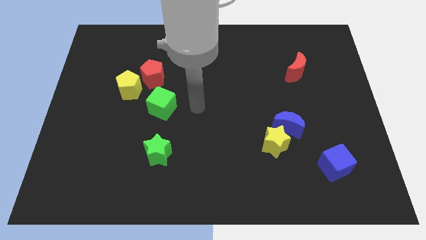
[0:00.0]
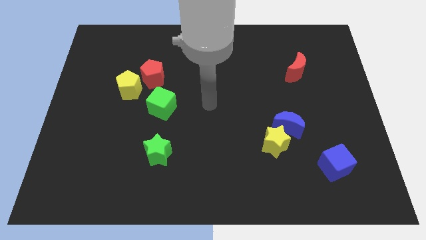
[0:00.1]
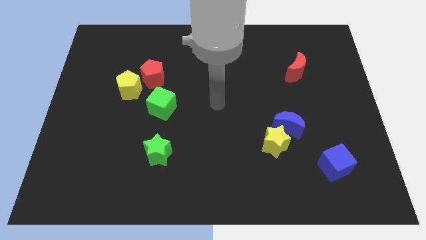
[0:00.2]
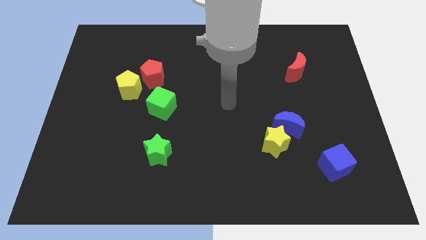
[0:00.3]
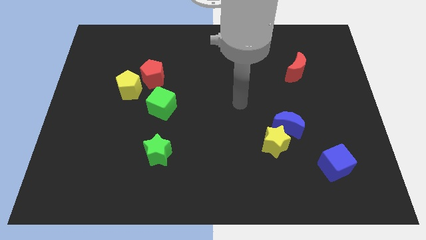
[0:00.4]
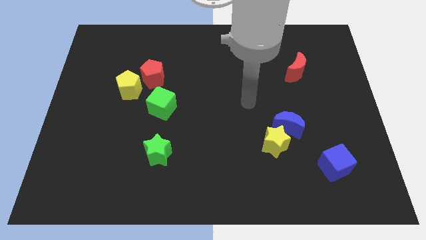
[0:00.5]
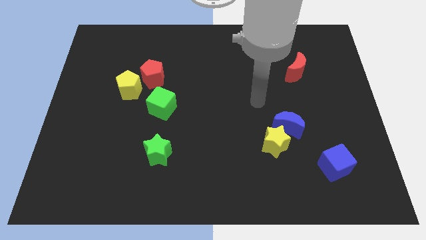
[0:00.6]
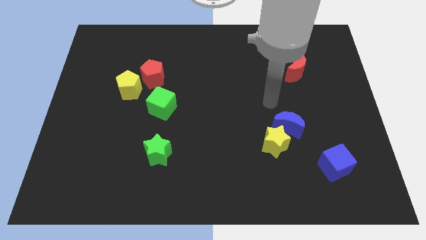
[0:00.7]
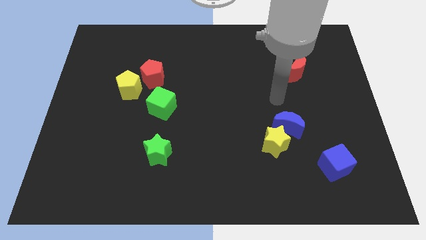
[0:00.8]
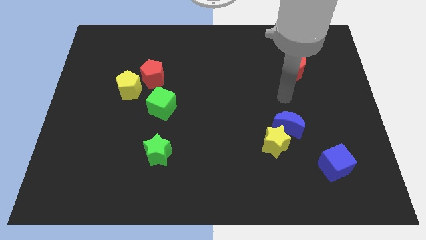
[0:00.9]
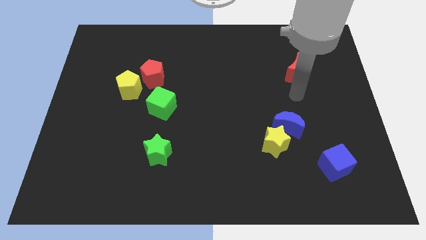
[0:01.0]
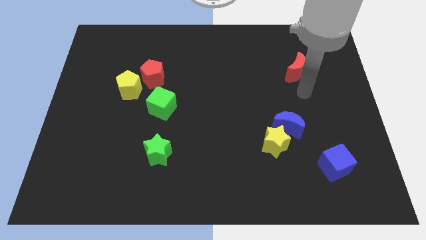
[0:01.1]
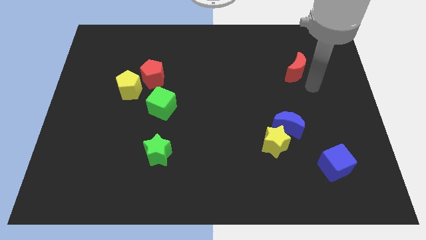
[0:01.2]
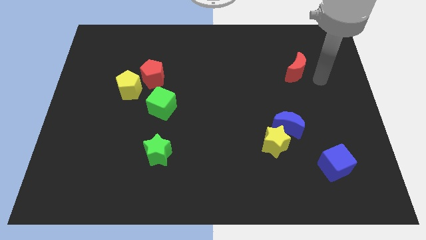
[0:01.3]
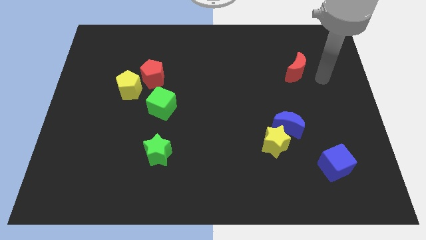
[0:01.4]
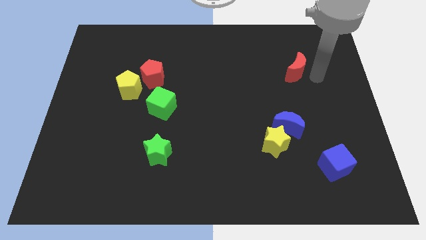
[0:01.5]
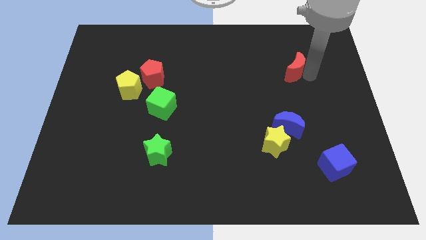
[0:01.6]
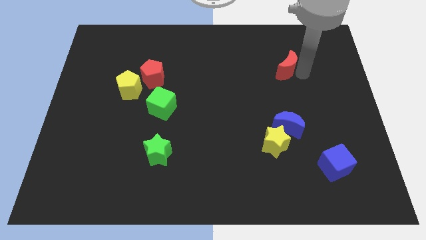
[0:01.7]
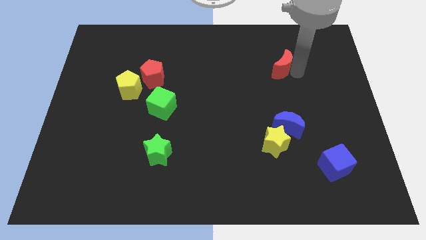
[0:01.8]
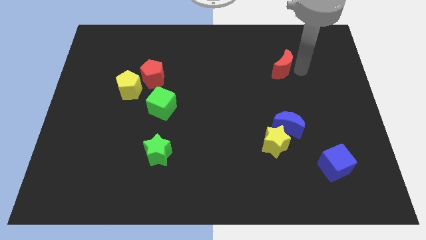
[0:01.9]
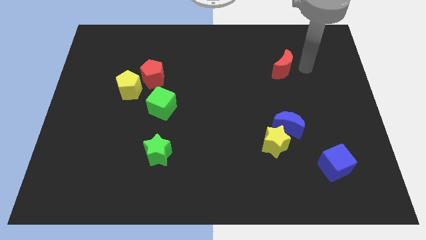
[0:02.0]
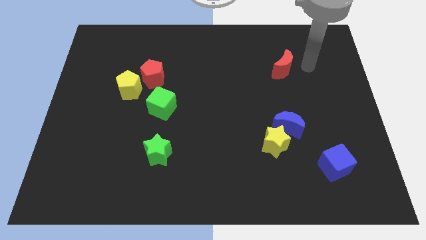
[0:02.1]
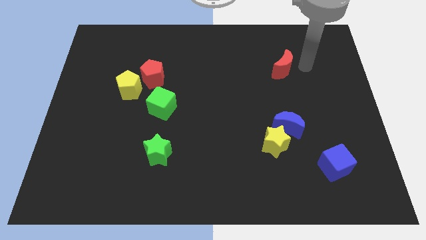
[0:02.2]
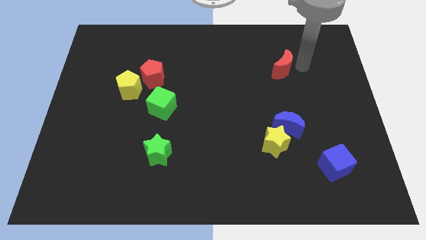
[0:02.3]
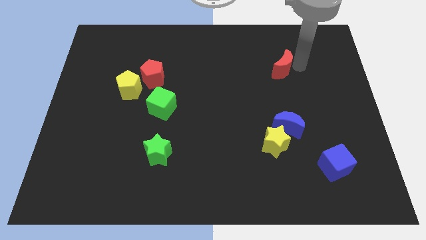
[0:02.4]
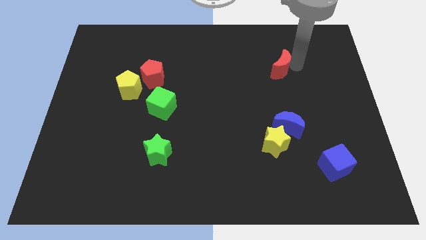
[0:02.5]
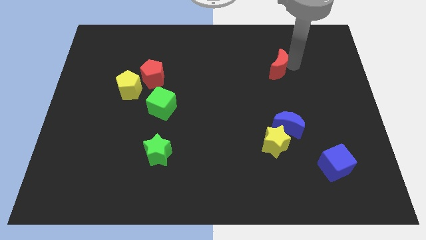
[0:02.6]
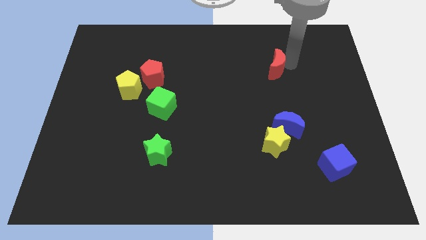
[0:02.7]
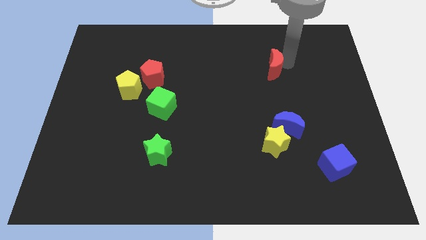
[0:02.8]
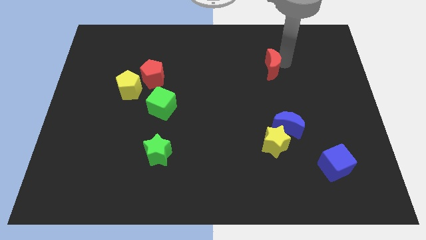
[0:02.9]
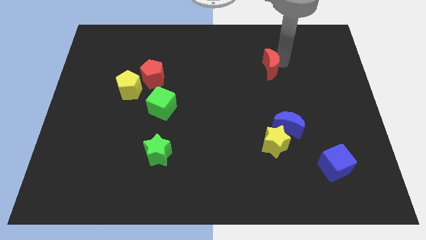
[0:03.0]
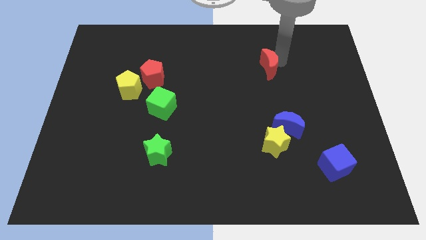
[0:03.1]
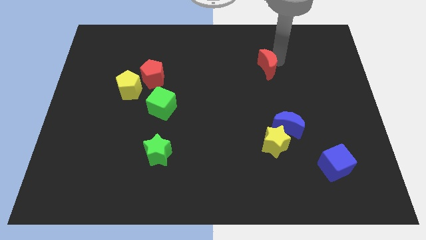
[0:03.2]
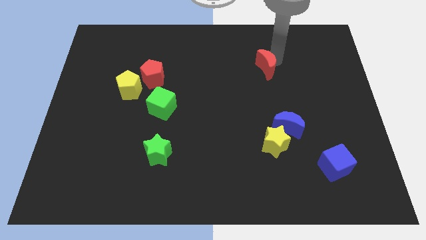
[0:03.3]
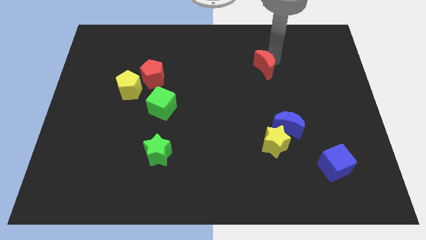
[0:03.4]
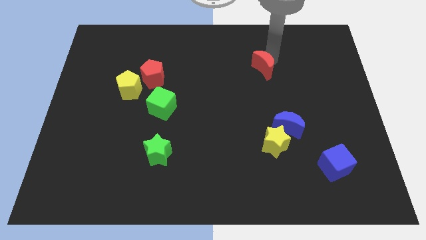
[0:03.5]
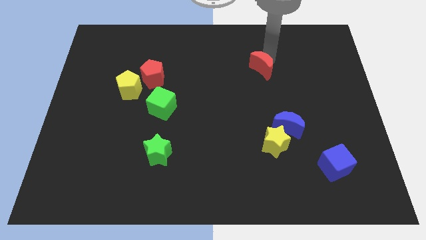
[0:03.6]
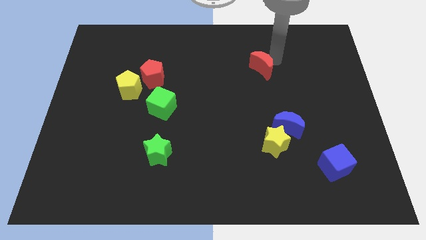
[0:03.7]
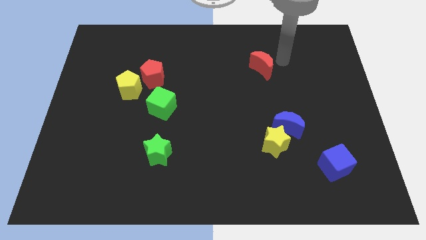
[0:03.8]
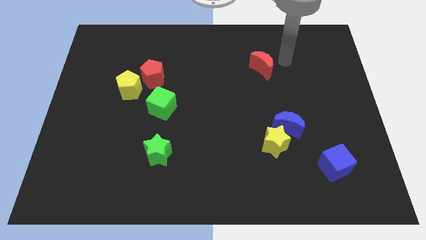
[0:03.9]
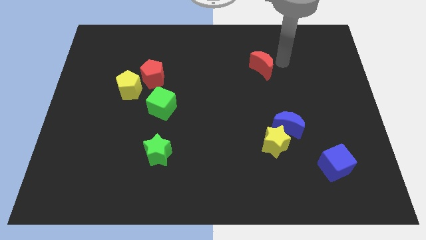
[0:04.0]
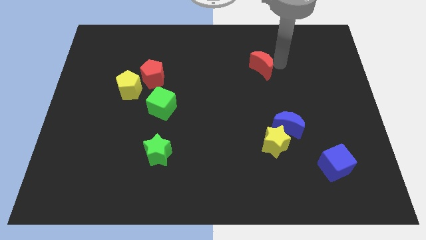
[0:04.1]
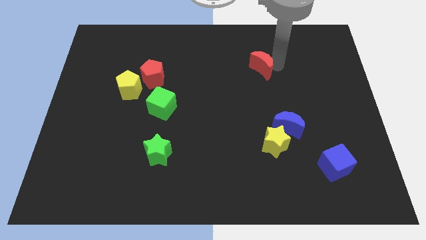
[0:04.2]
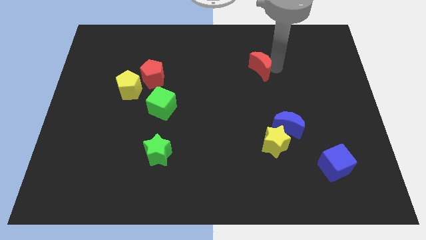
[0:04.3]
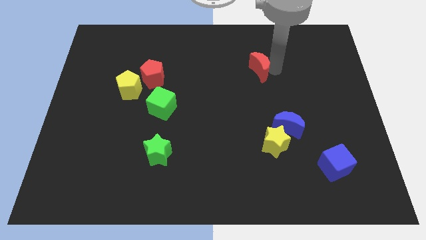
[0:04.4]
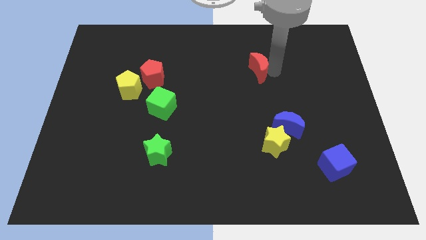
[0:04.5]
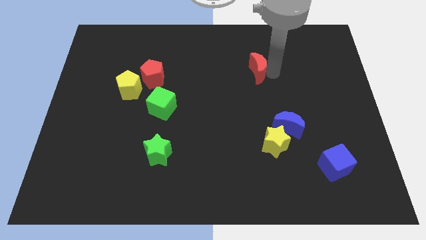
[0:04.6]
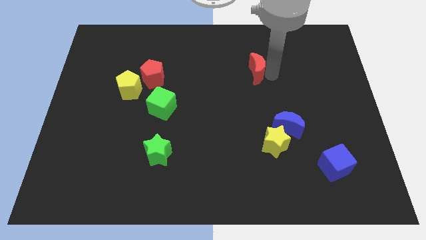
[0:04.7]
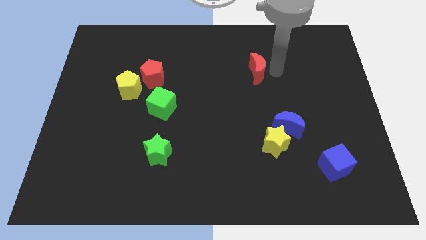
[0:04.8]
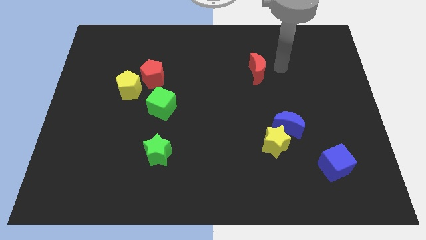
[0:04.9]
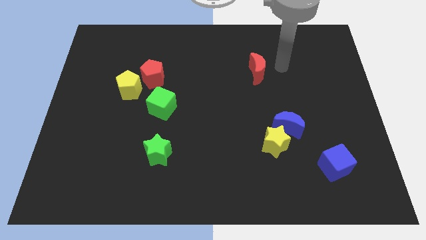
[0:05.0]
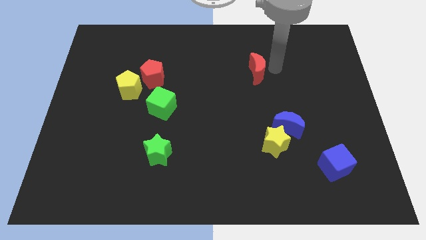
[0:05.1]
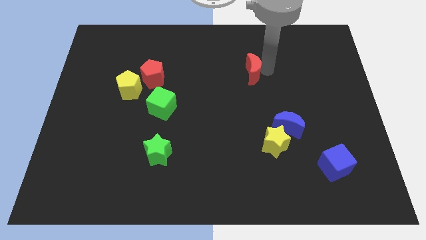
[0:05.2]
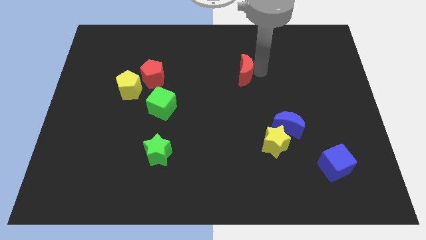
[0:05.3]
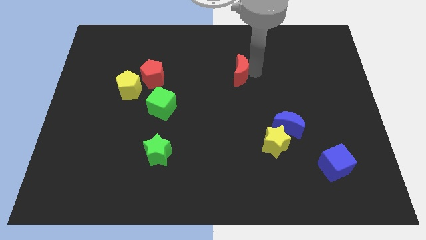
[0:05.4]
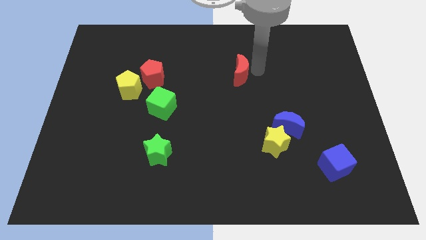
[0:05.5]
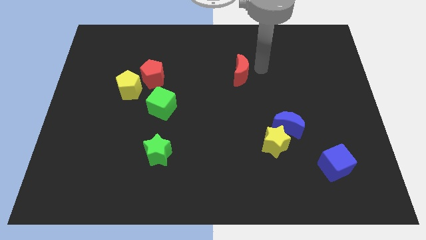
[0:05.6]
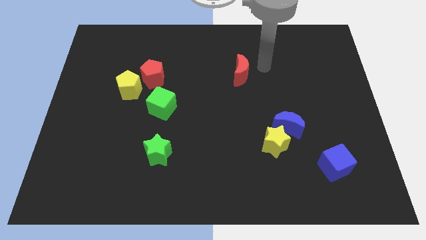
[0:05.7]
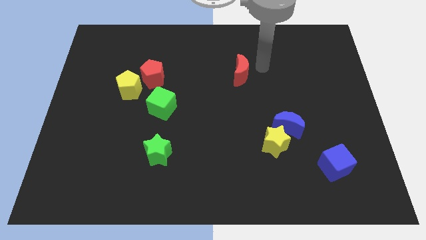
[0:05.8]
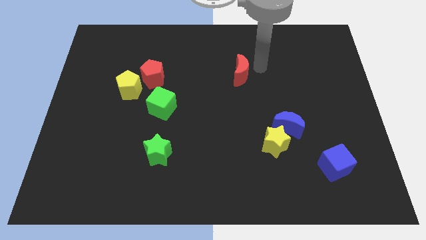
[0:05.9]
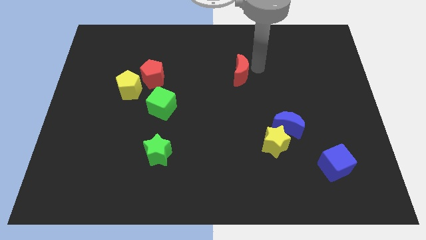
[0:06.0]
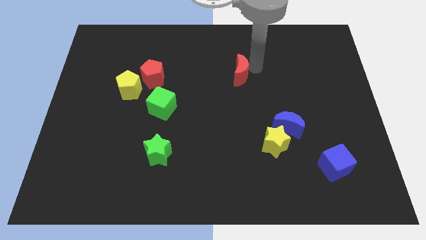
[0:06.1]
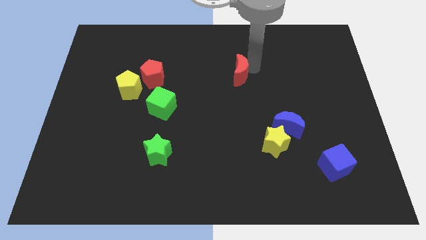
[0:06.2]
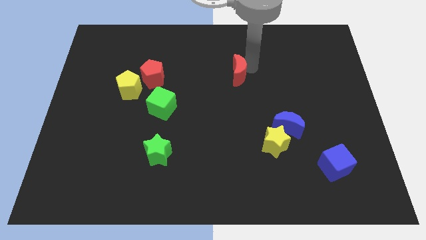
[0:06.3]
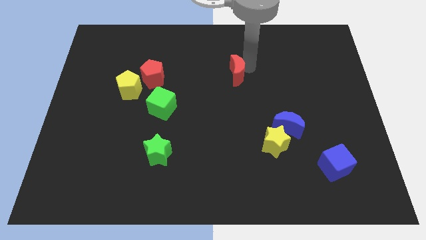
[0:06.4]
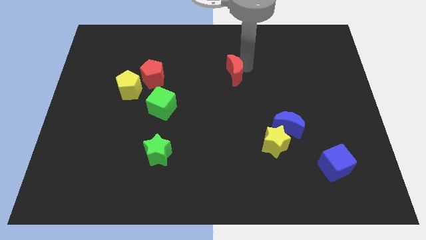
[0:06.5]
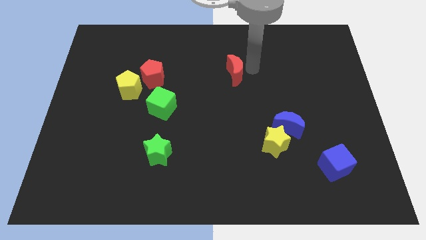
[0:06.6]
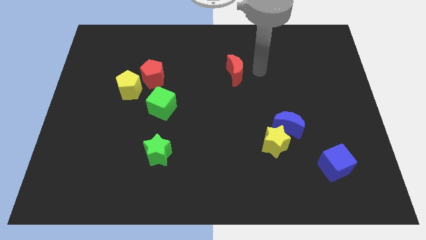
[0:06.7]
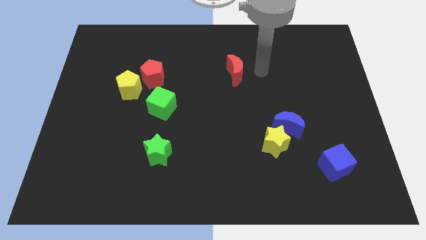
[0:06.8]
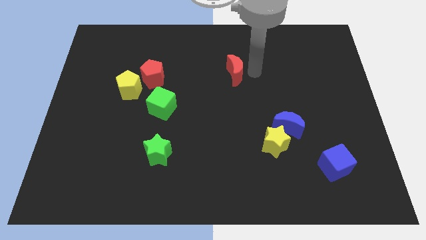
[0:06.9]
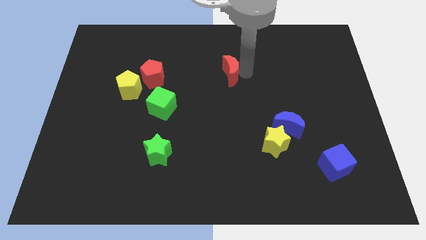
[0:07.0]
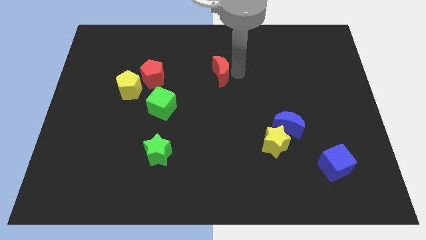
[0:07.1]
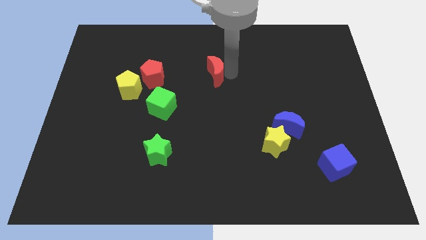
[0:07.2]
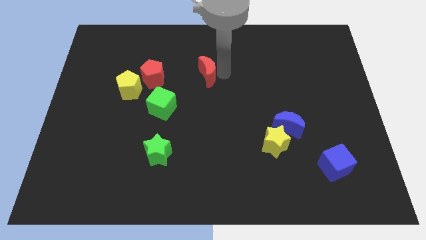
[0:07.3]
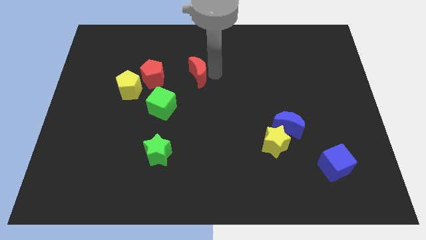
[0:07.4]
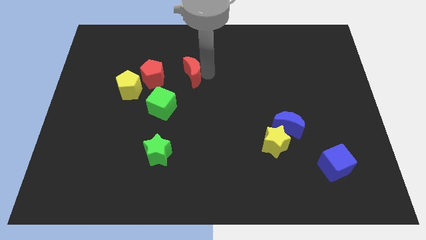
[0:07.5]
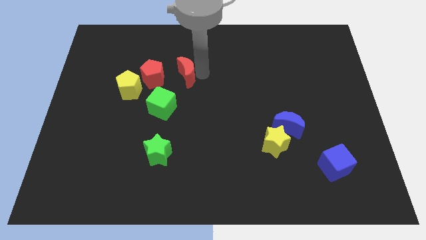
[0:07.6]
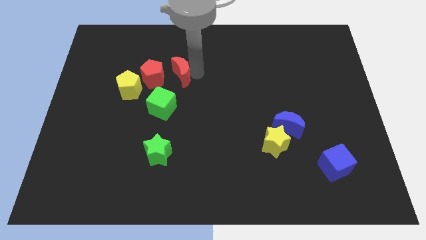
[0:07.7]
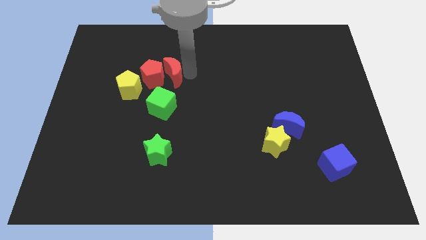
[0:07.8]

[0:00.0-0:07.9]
push the red moon next to the red pentagon
